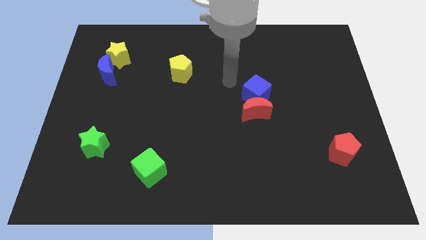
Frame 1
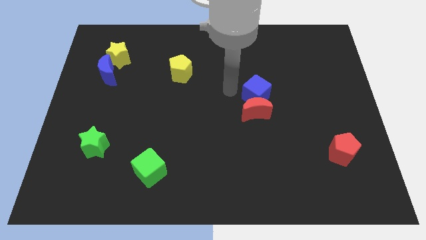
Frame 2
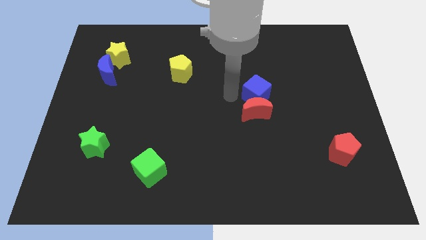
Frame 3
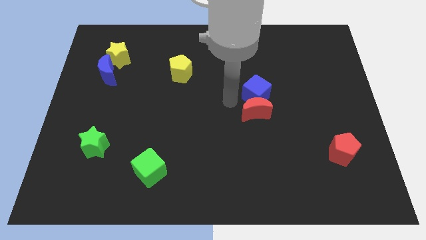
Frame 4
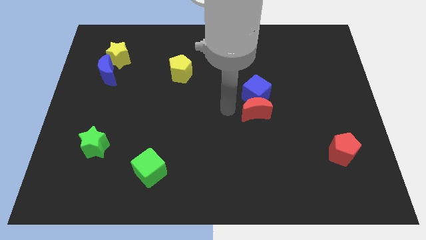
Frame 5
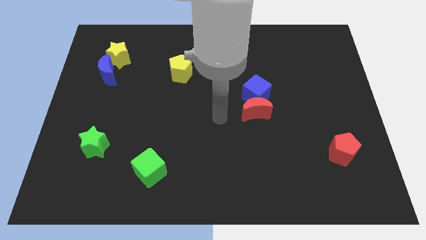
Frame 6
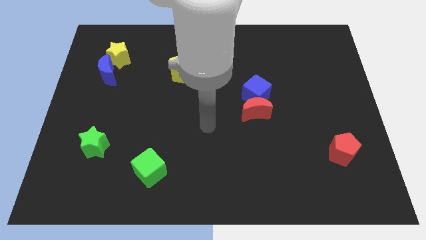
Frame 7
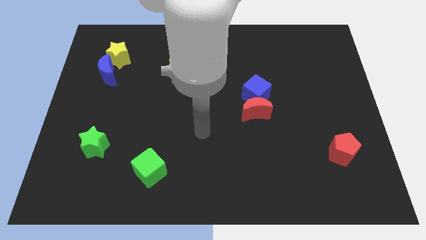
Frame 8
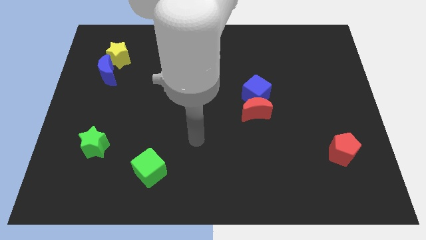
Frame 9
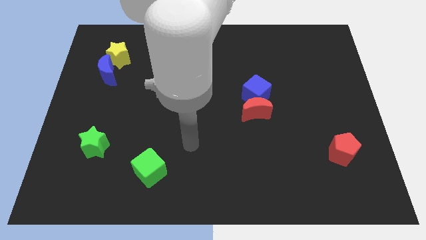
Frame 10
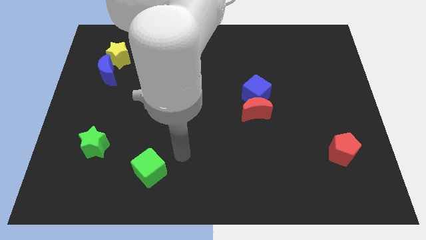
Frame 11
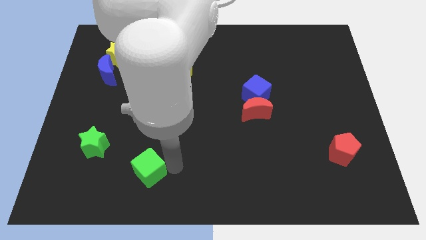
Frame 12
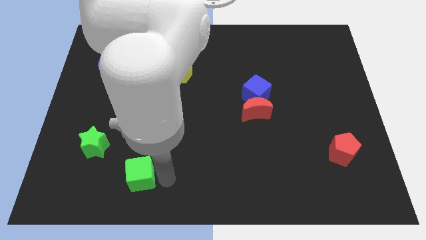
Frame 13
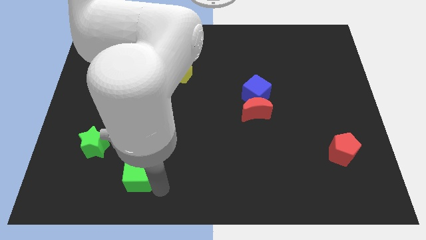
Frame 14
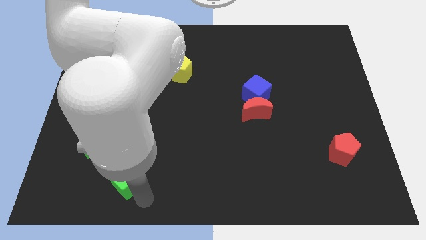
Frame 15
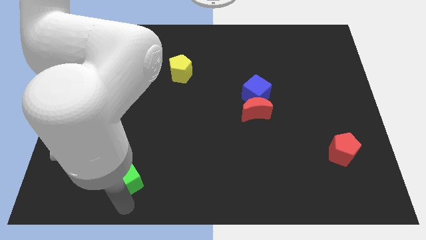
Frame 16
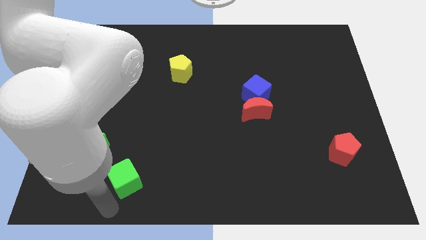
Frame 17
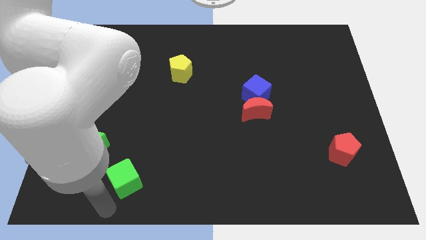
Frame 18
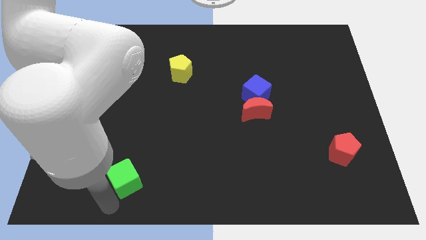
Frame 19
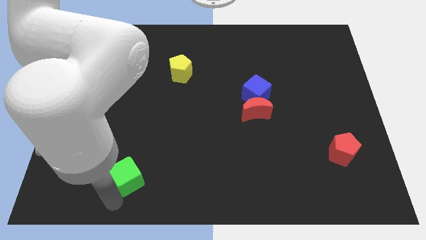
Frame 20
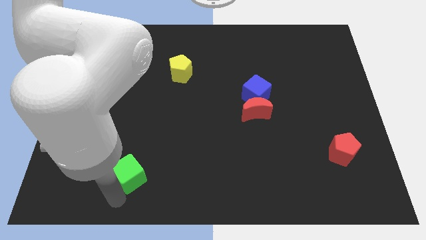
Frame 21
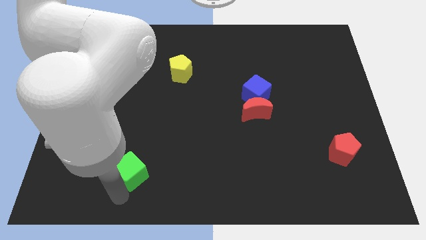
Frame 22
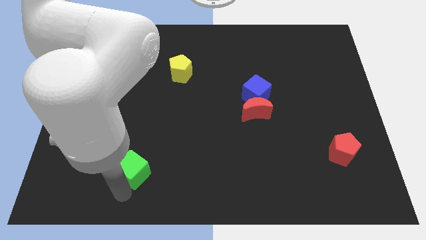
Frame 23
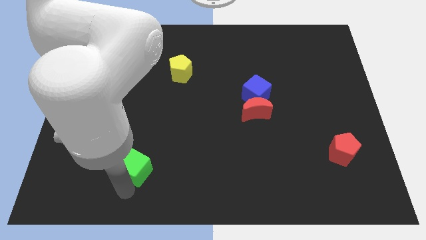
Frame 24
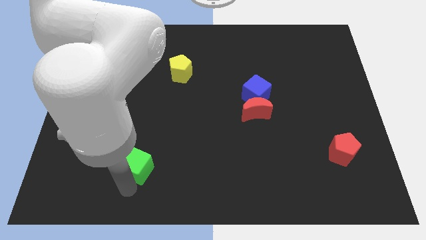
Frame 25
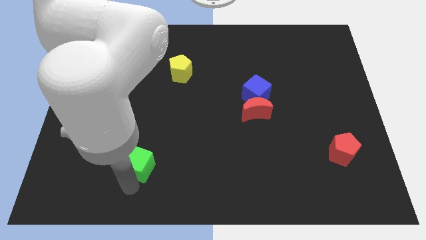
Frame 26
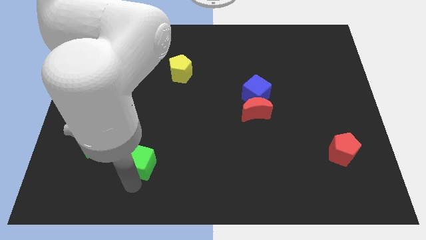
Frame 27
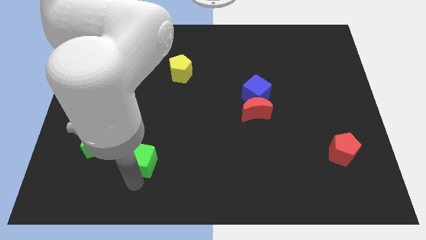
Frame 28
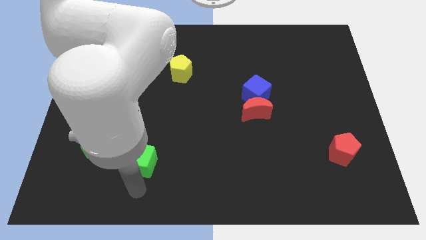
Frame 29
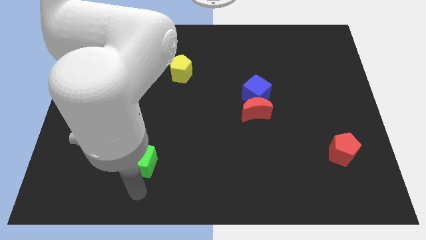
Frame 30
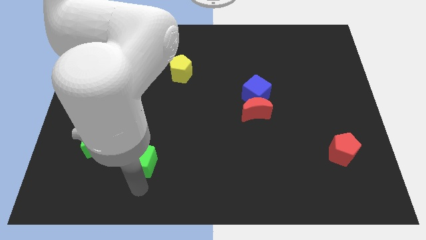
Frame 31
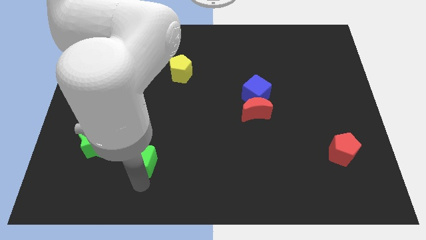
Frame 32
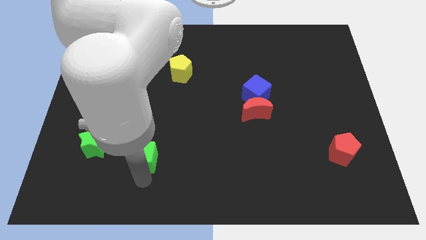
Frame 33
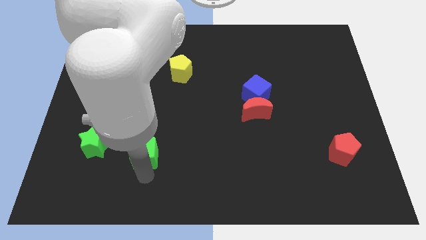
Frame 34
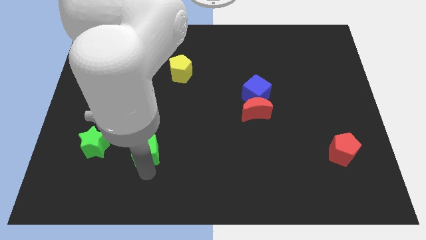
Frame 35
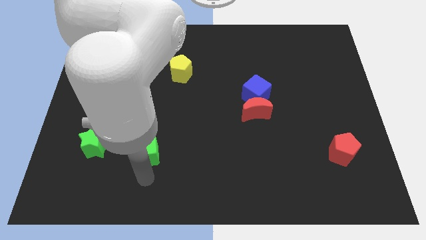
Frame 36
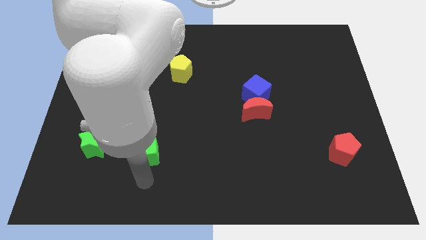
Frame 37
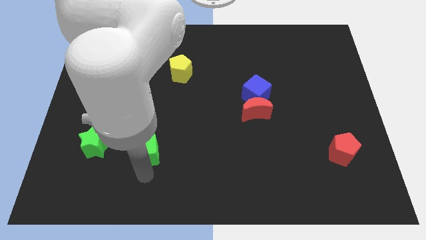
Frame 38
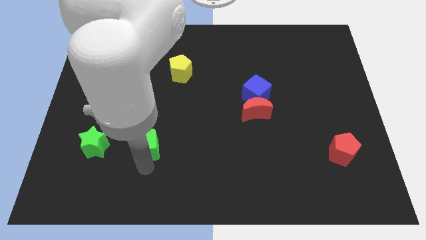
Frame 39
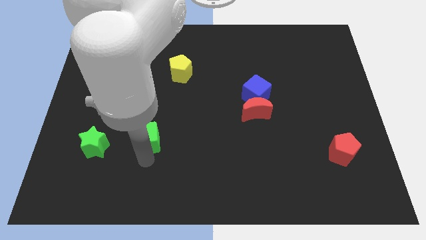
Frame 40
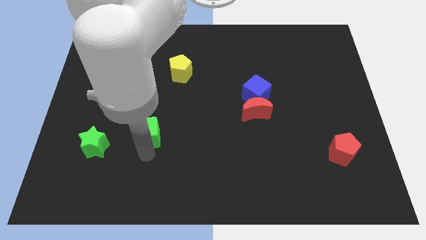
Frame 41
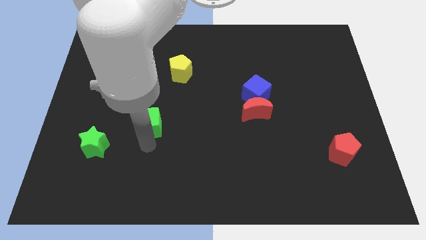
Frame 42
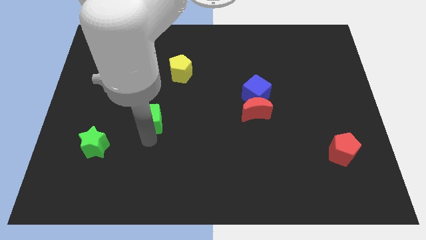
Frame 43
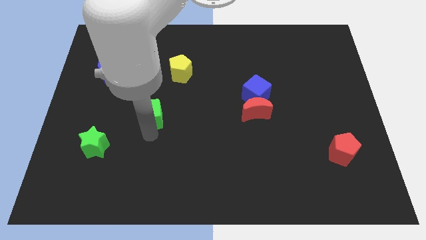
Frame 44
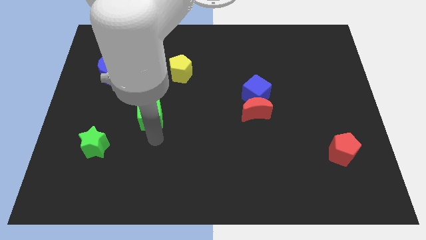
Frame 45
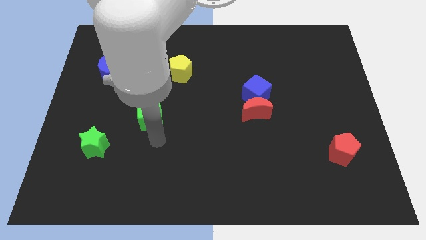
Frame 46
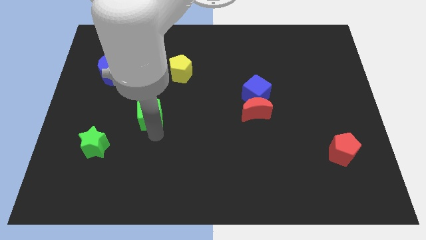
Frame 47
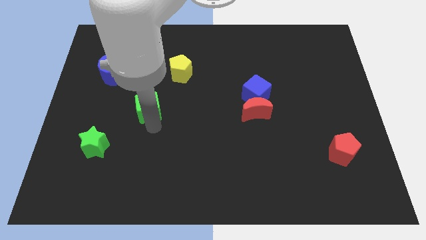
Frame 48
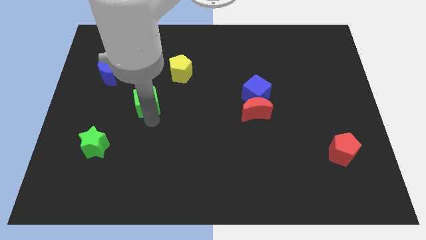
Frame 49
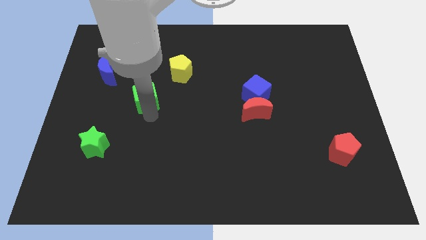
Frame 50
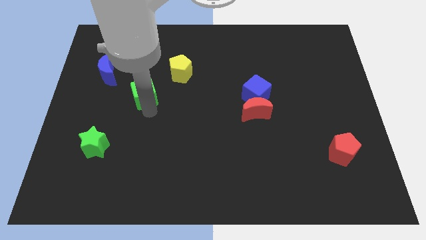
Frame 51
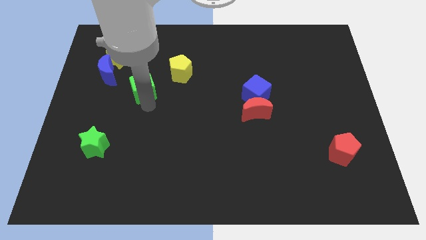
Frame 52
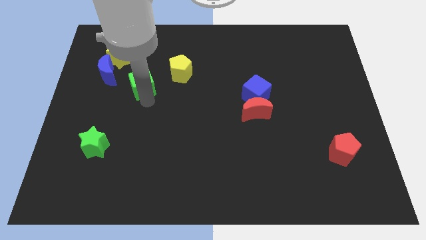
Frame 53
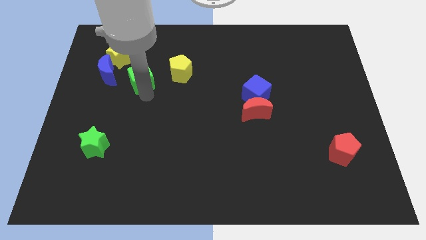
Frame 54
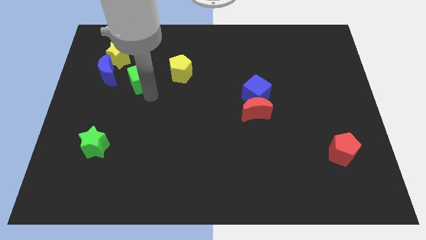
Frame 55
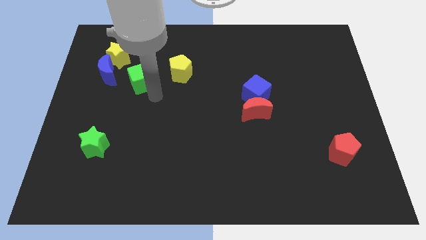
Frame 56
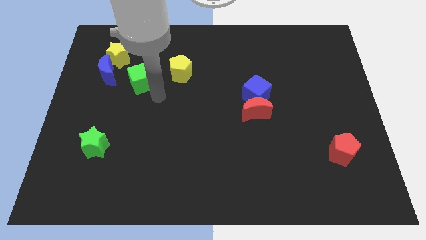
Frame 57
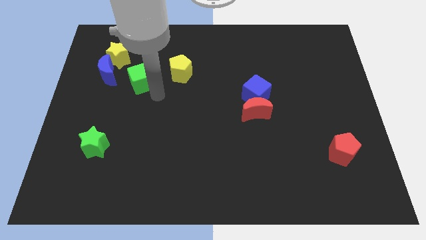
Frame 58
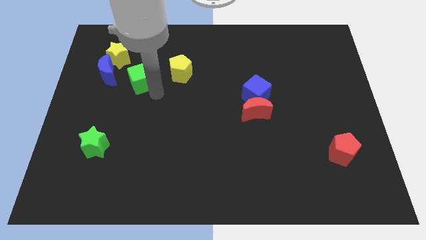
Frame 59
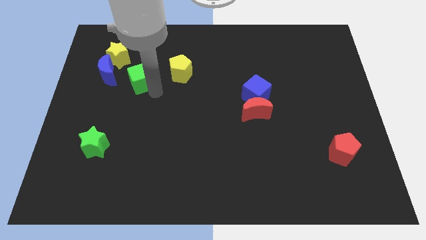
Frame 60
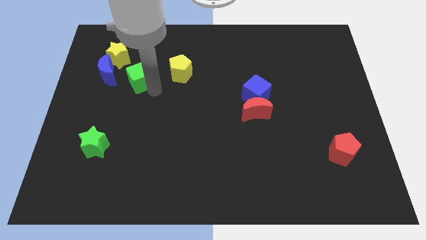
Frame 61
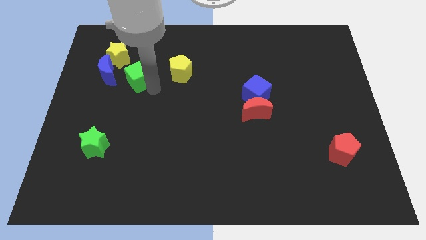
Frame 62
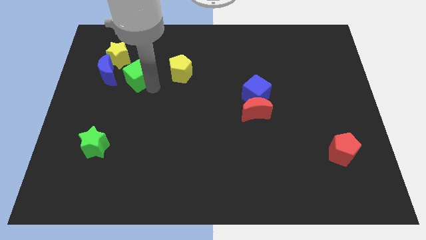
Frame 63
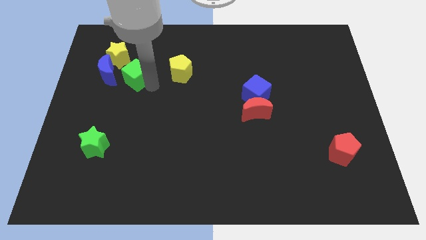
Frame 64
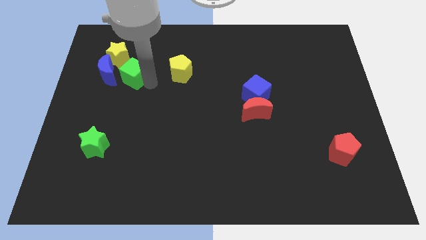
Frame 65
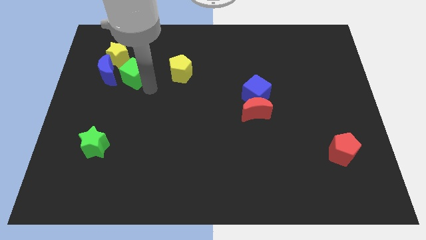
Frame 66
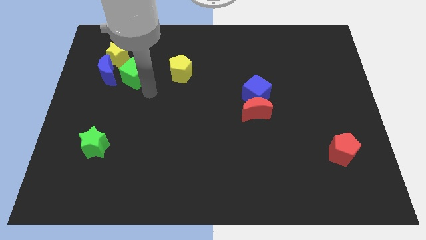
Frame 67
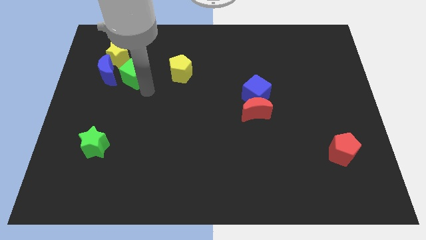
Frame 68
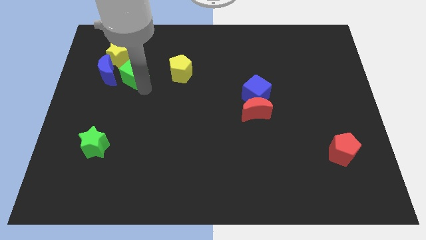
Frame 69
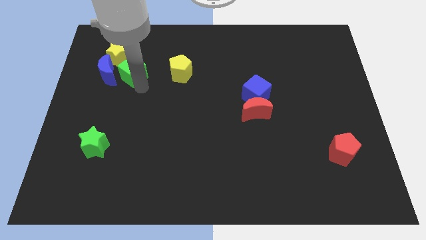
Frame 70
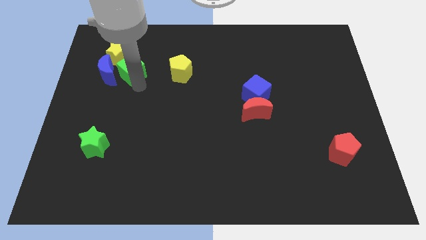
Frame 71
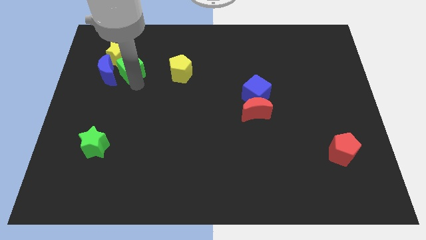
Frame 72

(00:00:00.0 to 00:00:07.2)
slide the green cube next to the yellow star
